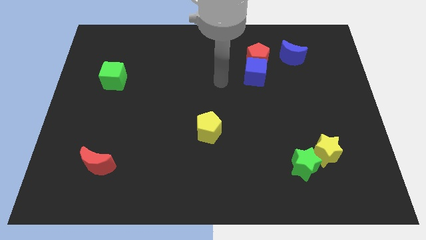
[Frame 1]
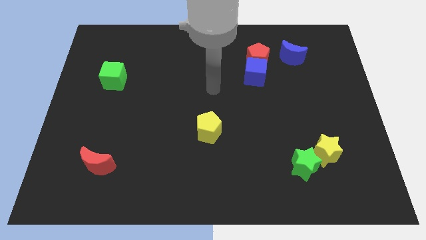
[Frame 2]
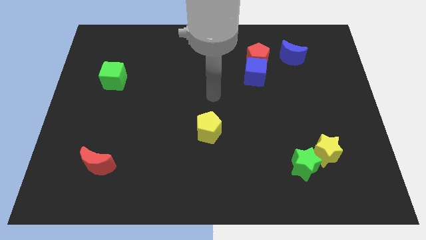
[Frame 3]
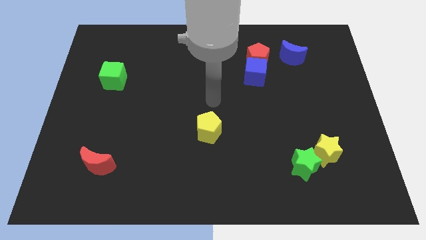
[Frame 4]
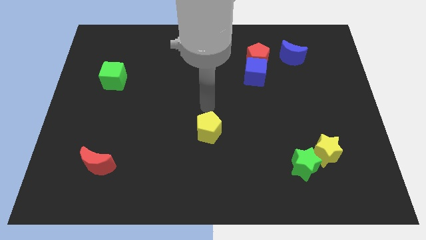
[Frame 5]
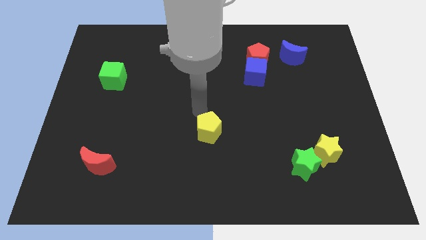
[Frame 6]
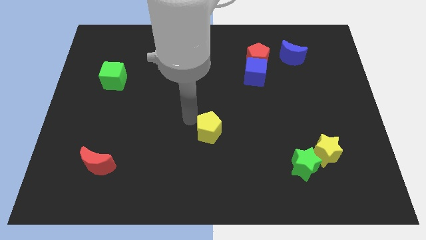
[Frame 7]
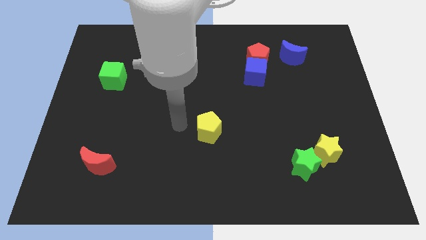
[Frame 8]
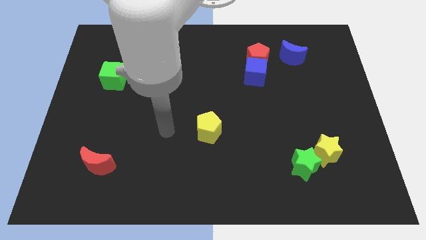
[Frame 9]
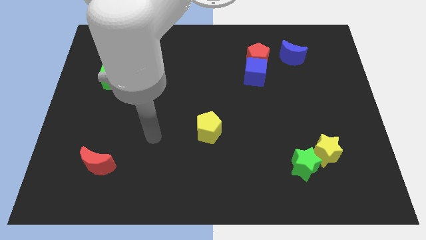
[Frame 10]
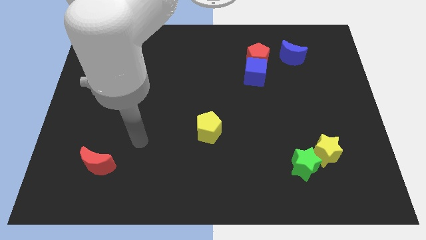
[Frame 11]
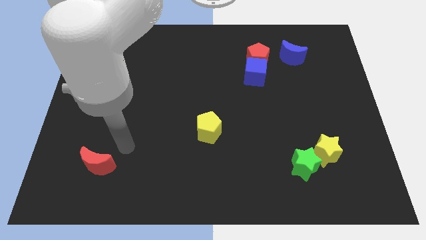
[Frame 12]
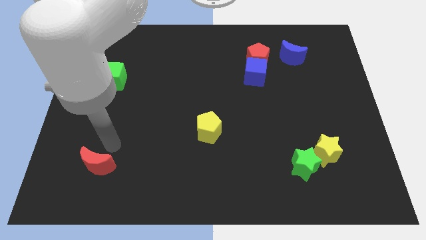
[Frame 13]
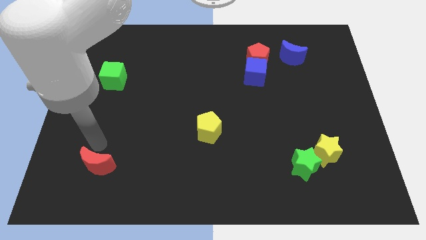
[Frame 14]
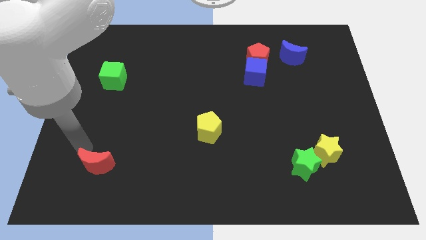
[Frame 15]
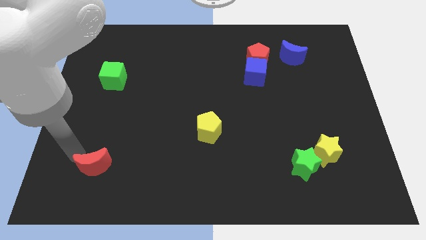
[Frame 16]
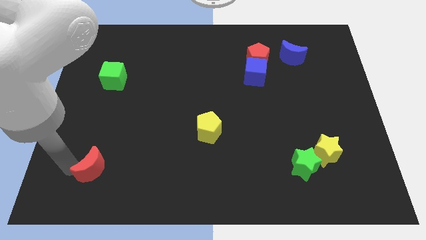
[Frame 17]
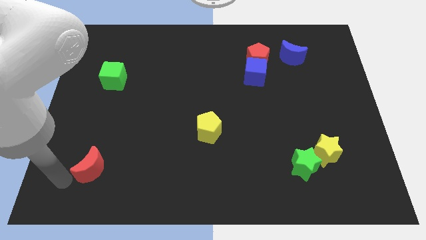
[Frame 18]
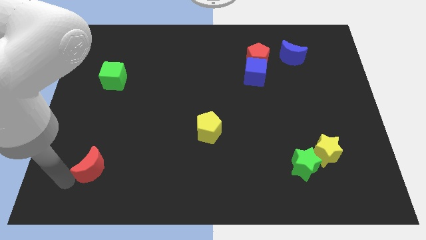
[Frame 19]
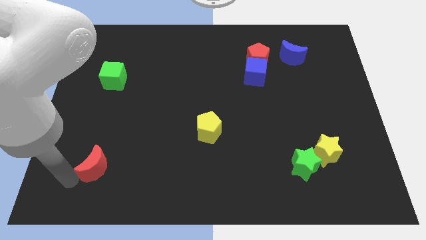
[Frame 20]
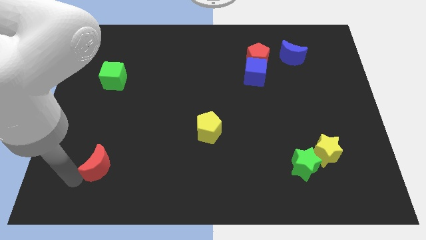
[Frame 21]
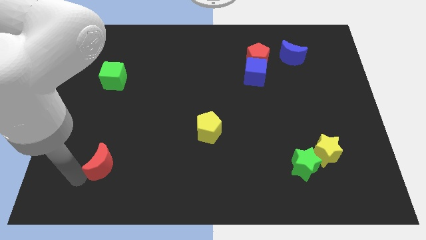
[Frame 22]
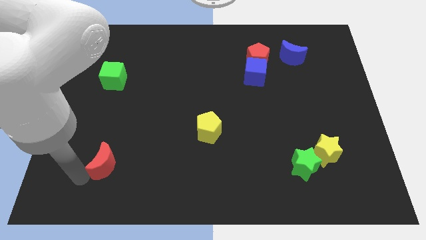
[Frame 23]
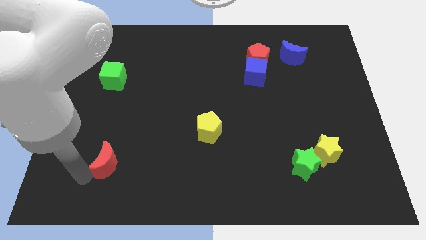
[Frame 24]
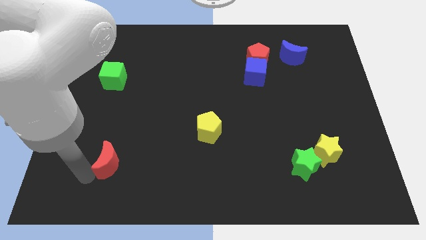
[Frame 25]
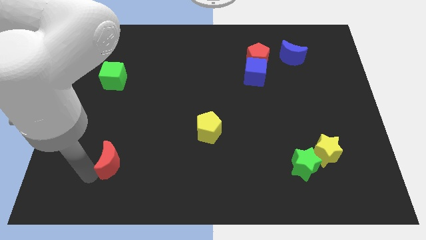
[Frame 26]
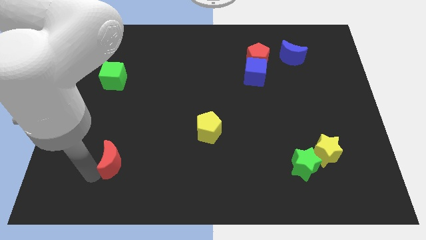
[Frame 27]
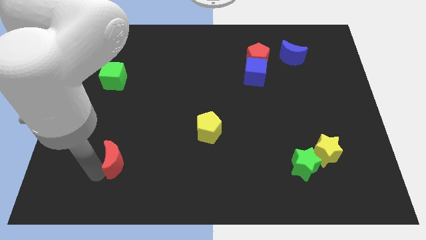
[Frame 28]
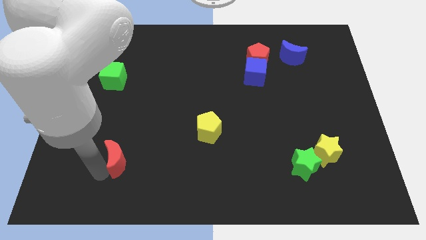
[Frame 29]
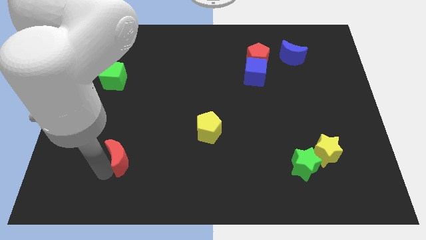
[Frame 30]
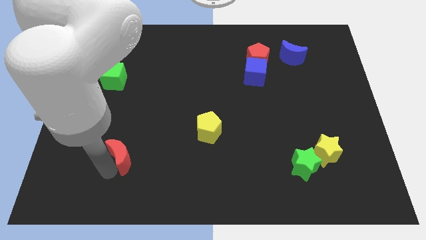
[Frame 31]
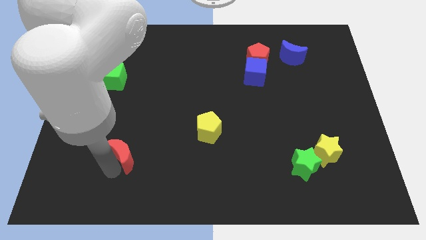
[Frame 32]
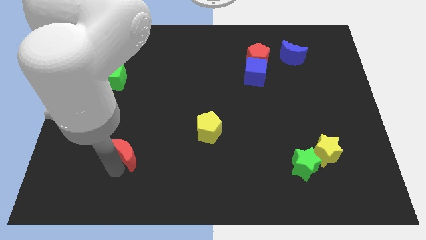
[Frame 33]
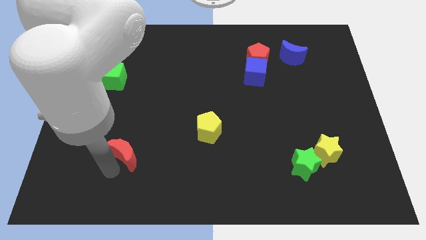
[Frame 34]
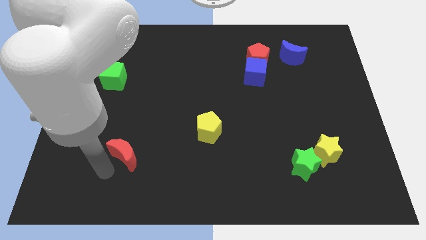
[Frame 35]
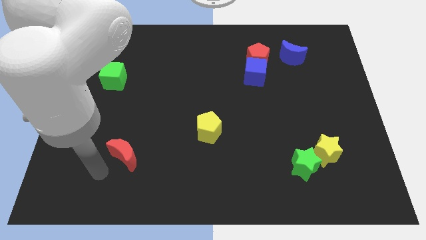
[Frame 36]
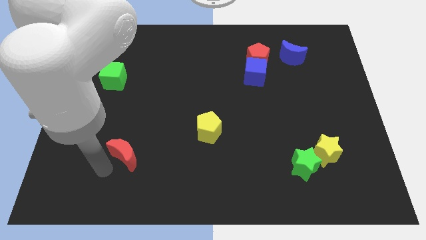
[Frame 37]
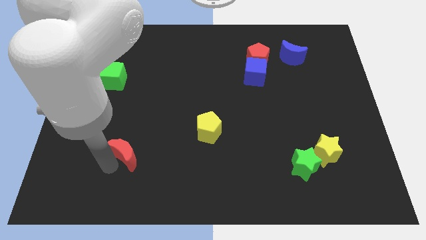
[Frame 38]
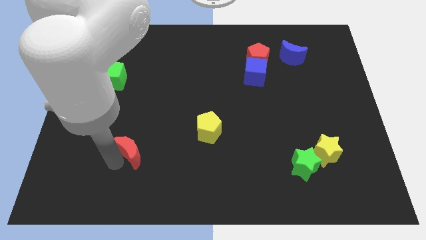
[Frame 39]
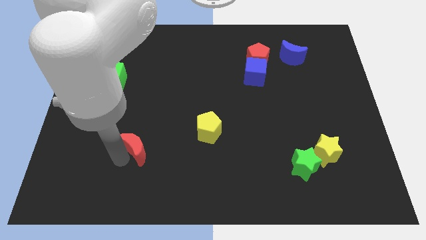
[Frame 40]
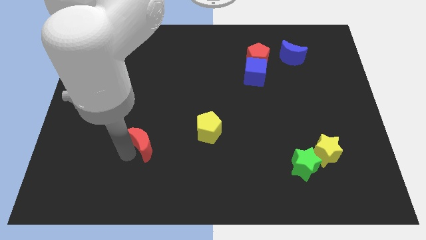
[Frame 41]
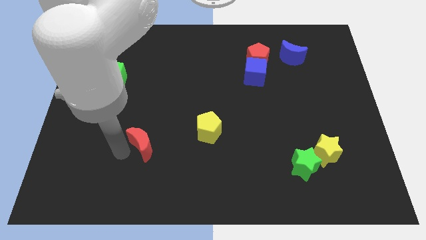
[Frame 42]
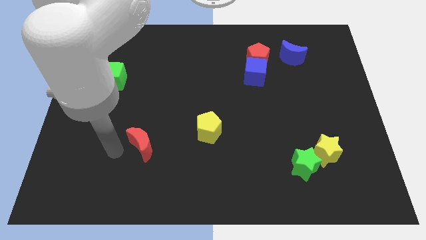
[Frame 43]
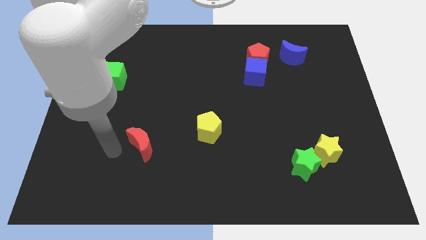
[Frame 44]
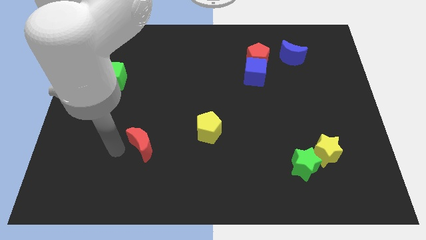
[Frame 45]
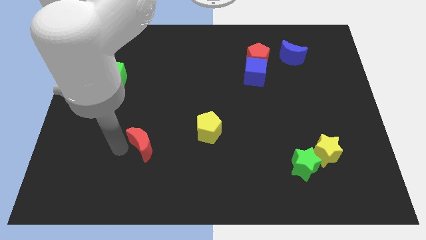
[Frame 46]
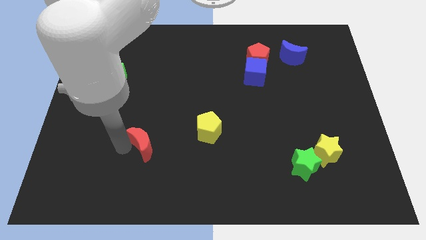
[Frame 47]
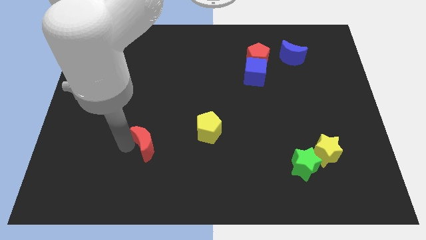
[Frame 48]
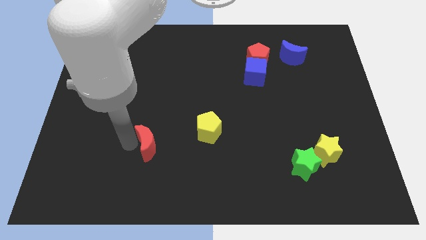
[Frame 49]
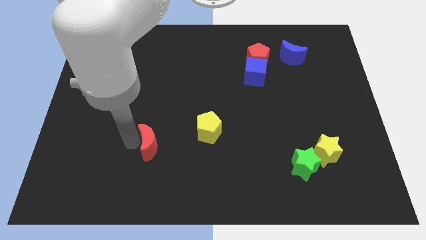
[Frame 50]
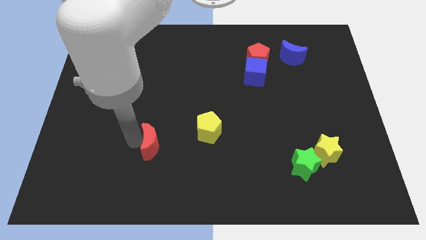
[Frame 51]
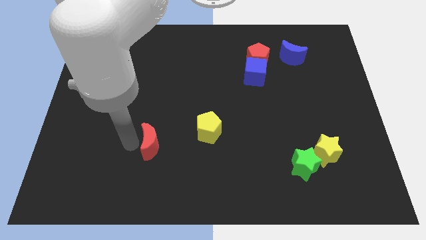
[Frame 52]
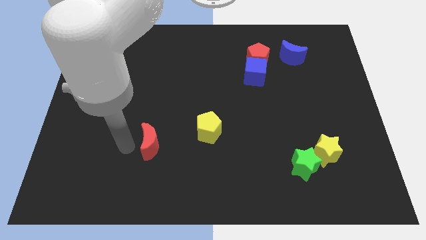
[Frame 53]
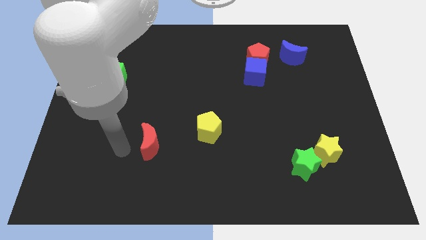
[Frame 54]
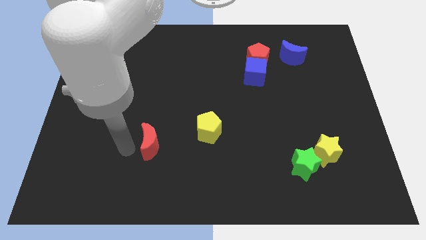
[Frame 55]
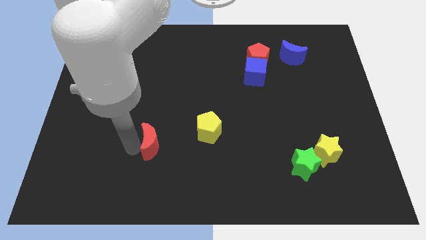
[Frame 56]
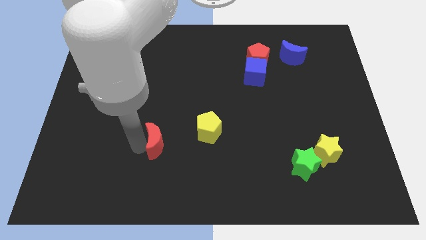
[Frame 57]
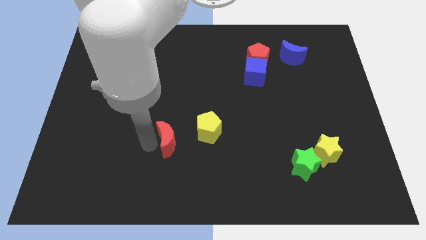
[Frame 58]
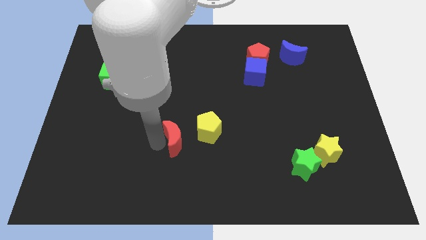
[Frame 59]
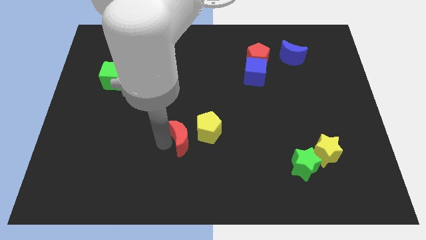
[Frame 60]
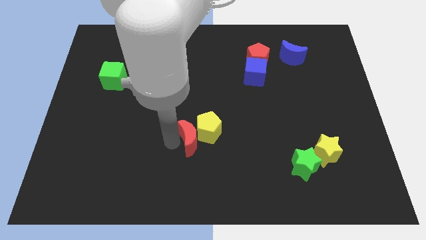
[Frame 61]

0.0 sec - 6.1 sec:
push the red moon to the yellow pentagon

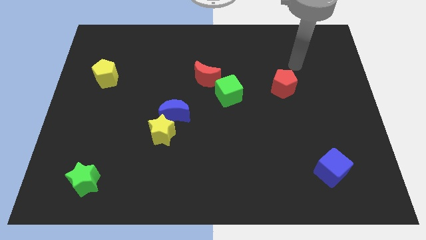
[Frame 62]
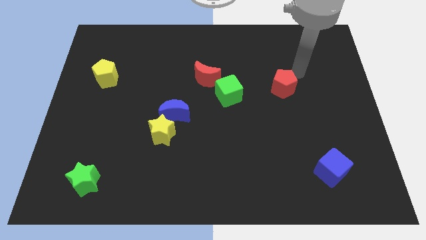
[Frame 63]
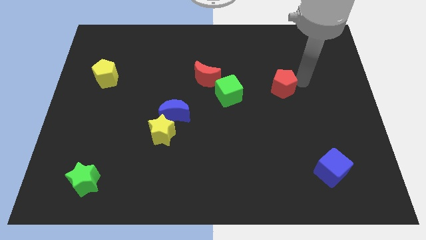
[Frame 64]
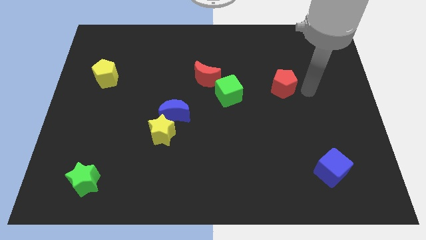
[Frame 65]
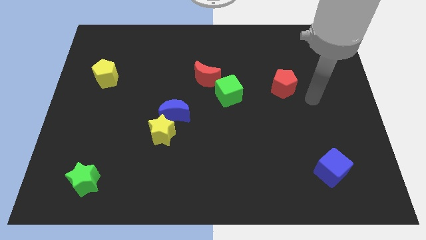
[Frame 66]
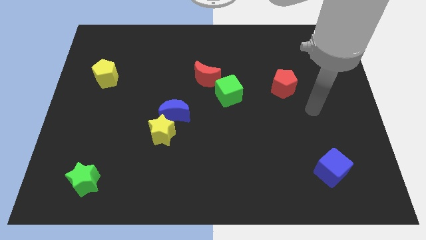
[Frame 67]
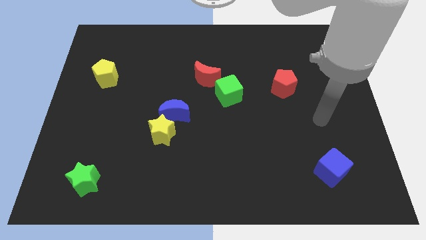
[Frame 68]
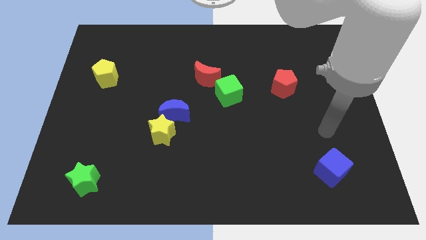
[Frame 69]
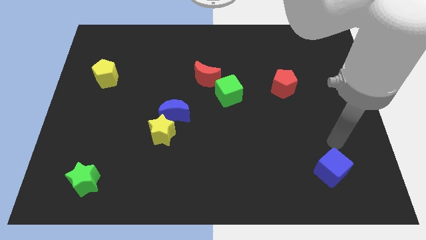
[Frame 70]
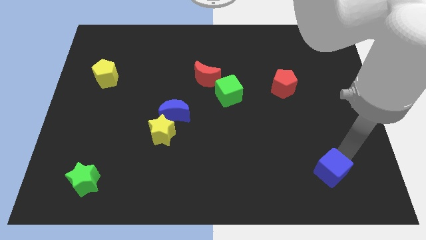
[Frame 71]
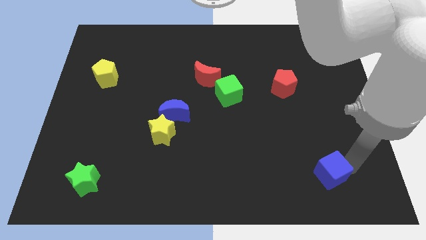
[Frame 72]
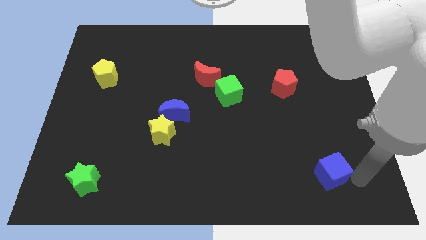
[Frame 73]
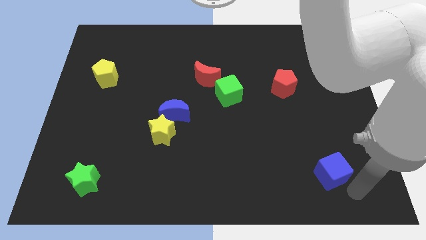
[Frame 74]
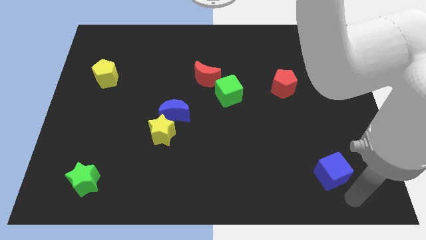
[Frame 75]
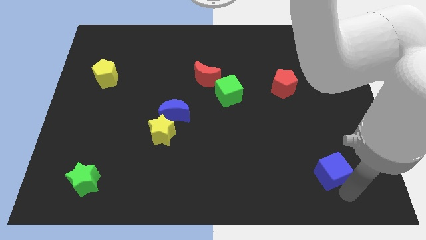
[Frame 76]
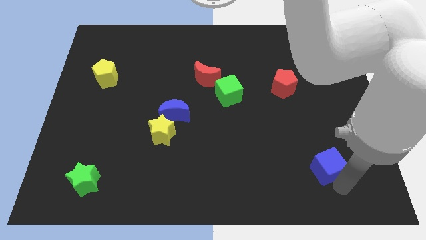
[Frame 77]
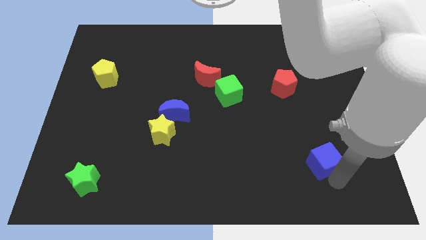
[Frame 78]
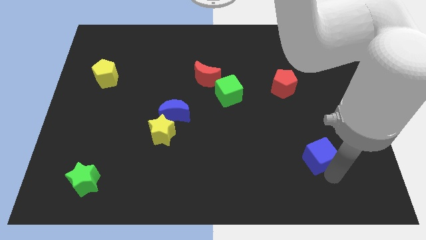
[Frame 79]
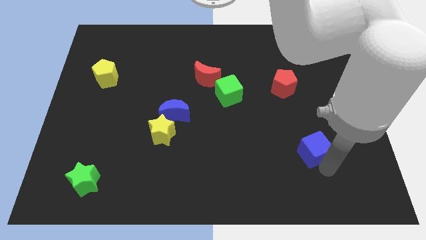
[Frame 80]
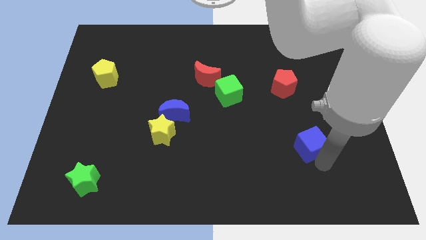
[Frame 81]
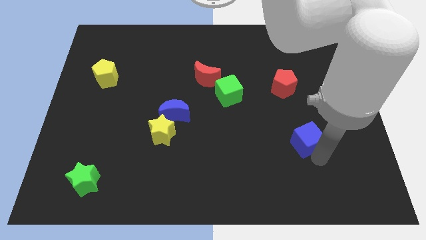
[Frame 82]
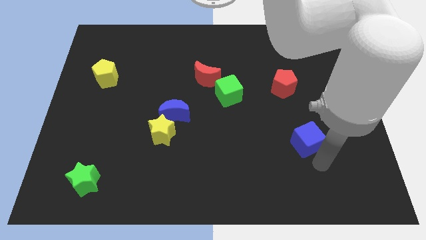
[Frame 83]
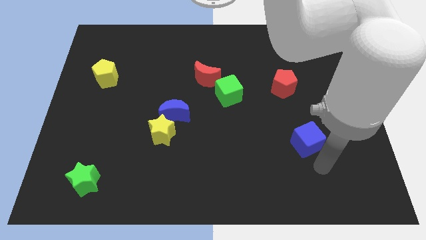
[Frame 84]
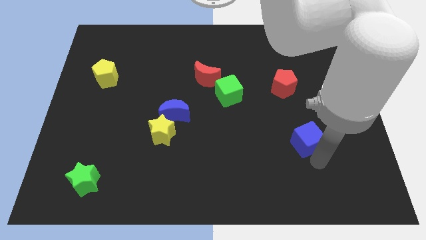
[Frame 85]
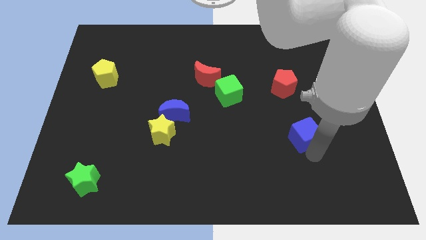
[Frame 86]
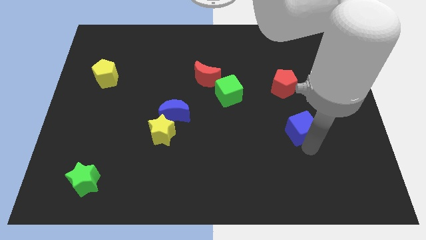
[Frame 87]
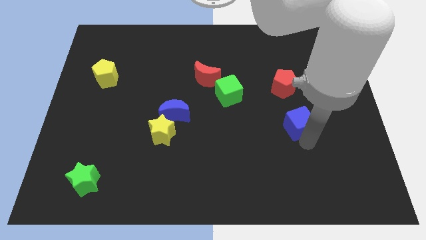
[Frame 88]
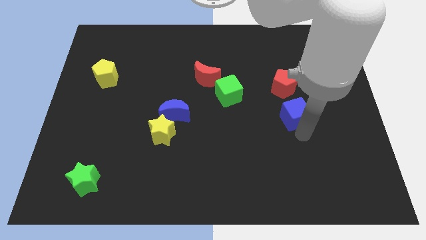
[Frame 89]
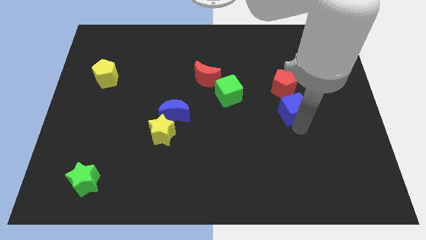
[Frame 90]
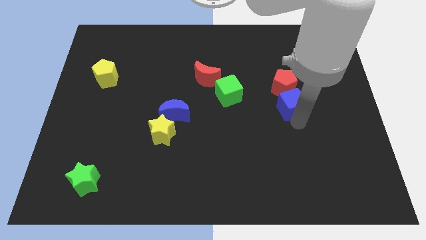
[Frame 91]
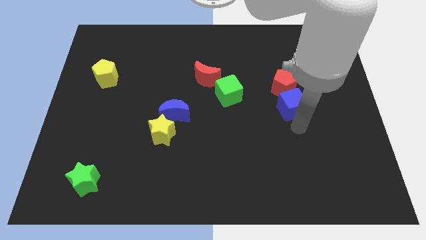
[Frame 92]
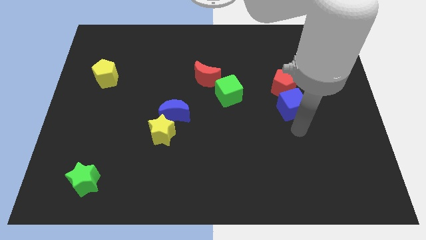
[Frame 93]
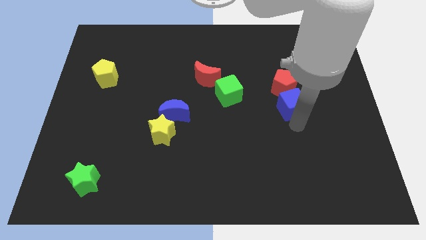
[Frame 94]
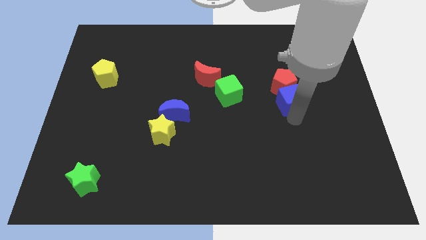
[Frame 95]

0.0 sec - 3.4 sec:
push the blue cube next to the red pentagon
